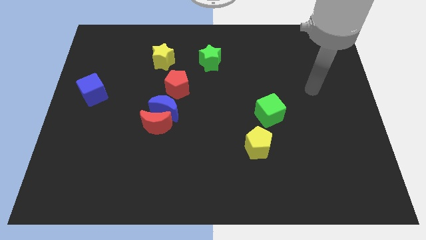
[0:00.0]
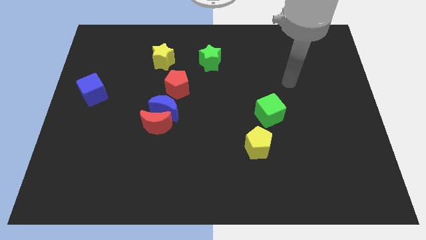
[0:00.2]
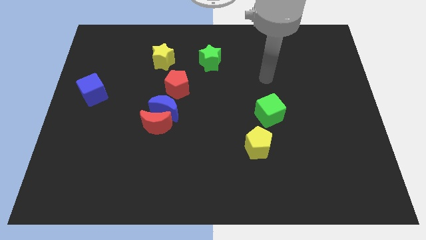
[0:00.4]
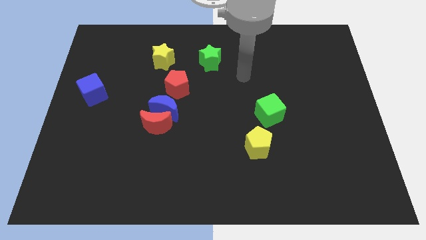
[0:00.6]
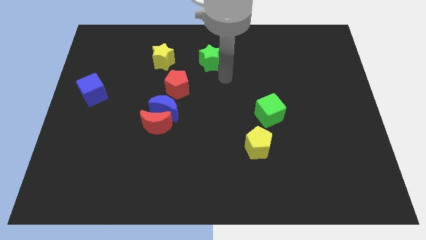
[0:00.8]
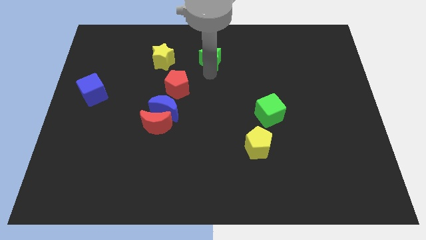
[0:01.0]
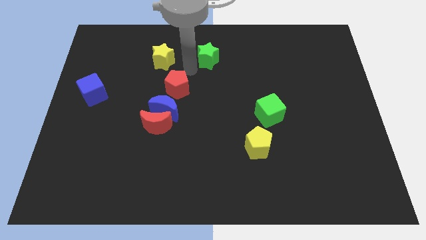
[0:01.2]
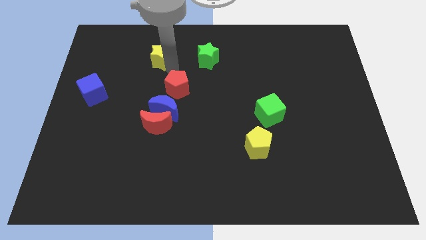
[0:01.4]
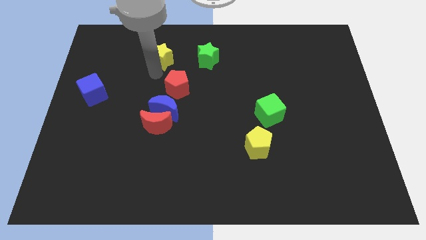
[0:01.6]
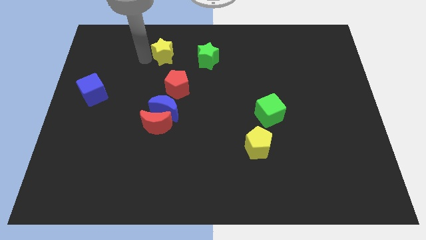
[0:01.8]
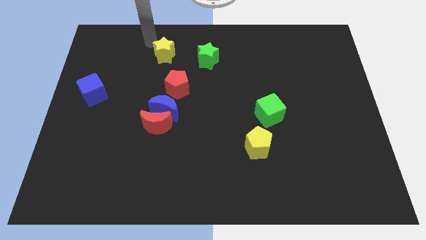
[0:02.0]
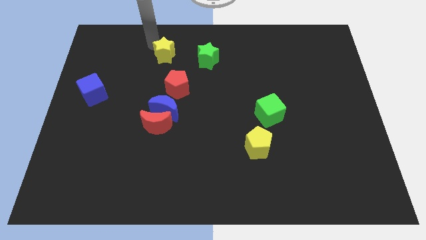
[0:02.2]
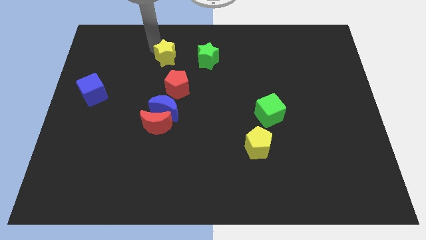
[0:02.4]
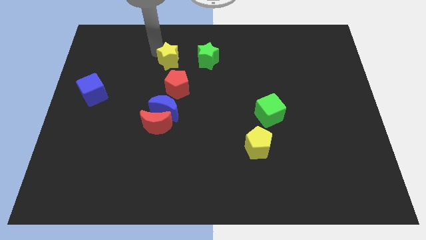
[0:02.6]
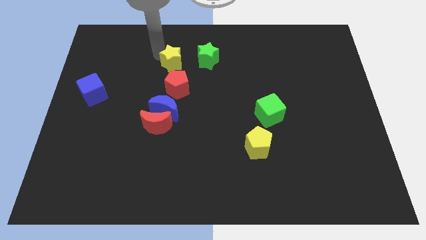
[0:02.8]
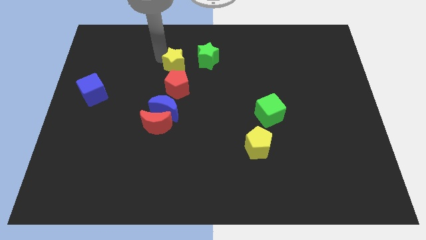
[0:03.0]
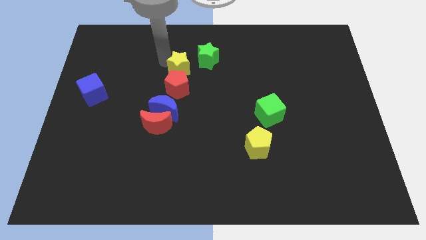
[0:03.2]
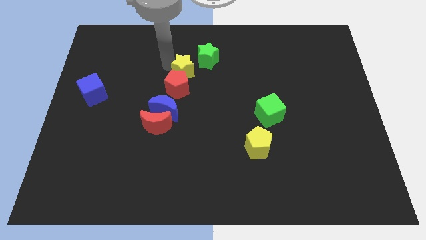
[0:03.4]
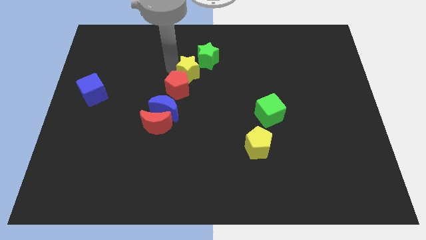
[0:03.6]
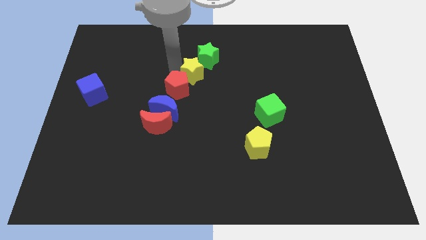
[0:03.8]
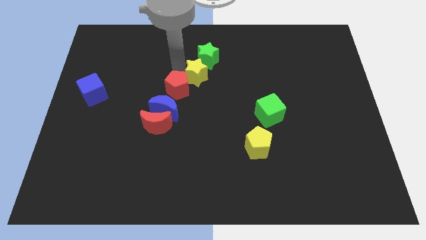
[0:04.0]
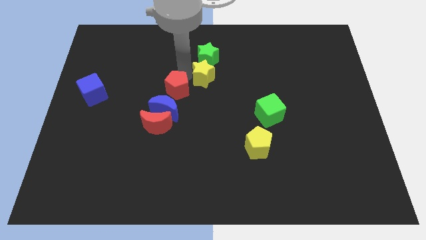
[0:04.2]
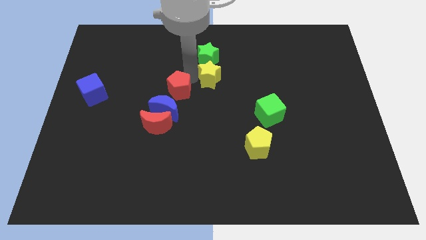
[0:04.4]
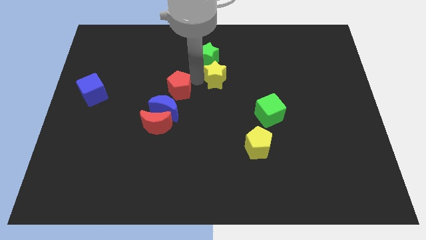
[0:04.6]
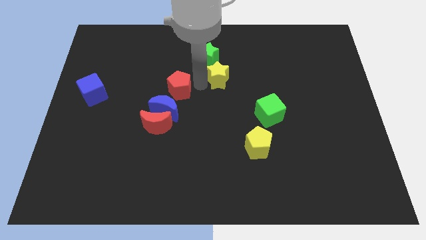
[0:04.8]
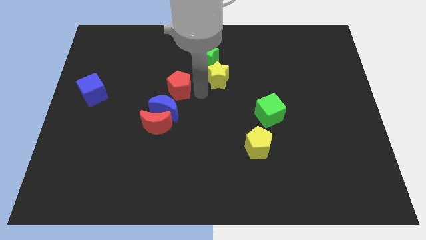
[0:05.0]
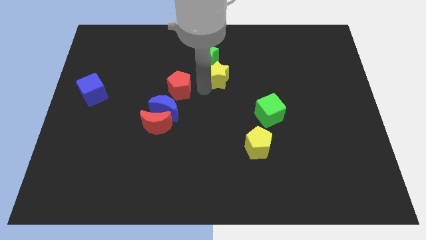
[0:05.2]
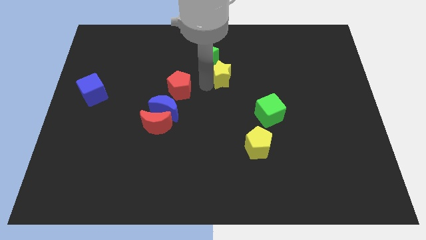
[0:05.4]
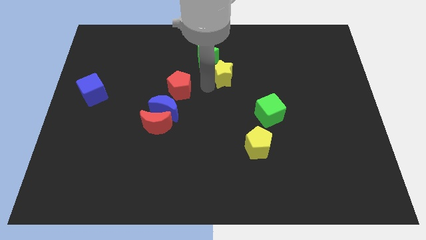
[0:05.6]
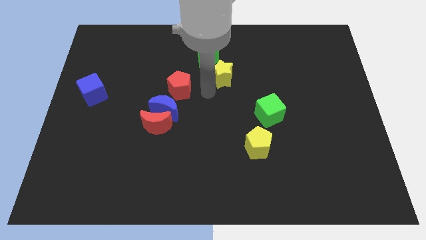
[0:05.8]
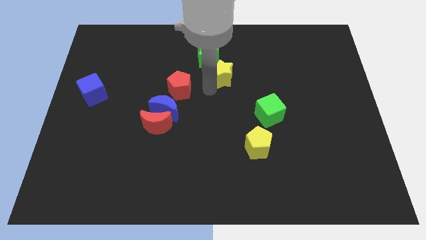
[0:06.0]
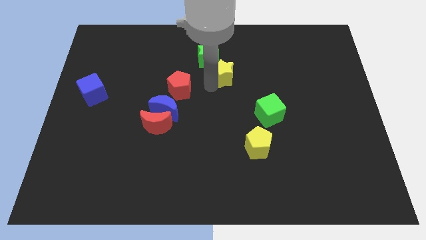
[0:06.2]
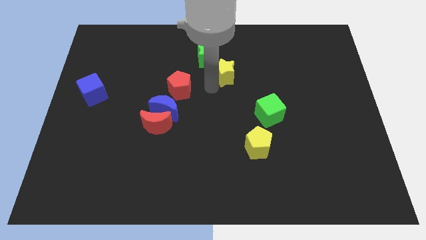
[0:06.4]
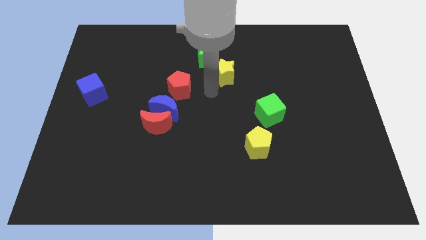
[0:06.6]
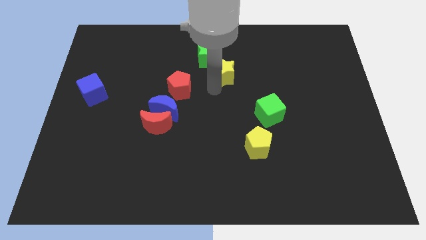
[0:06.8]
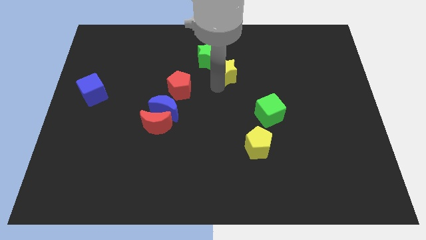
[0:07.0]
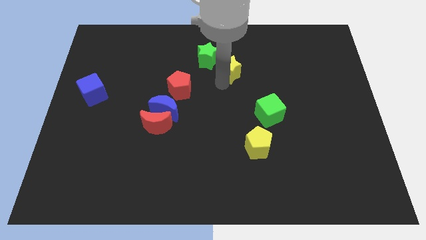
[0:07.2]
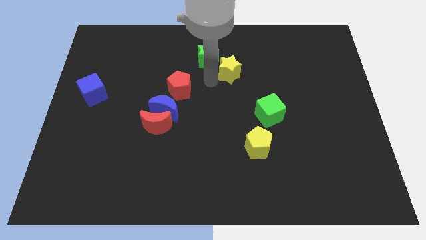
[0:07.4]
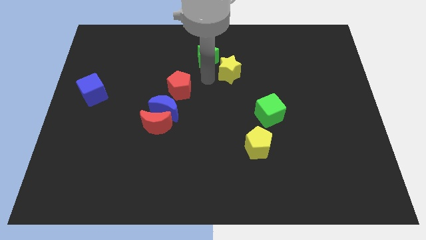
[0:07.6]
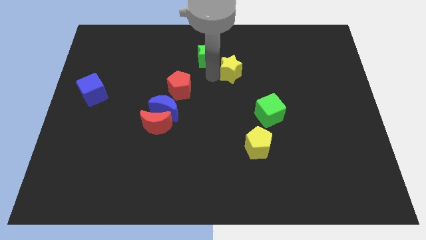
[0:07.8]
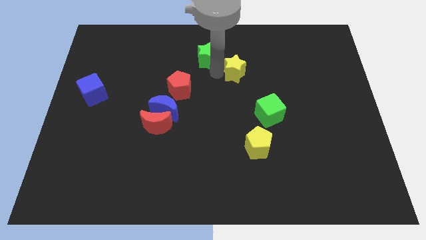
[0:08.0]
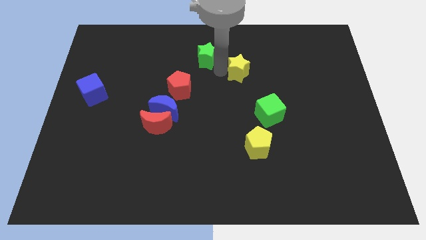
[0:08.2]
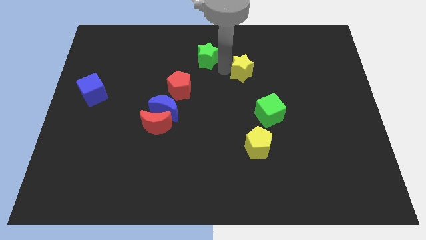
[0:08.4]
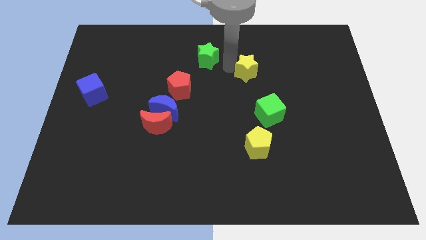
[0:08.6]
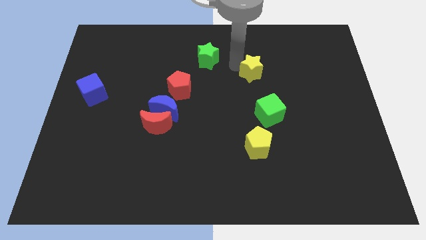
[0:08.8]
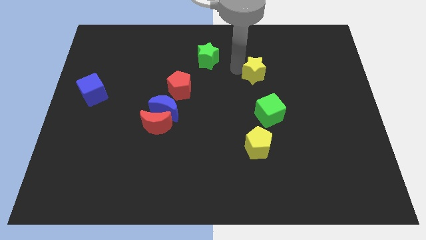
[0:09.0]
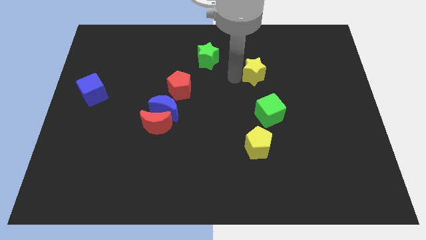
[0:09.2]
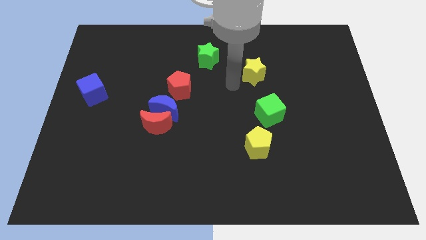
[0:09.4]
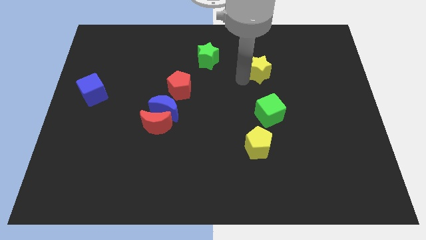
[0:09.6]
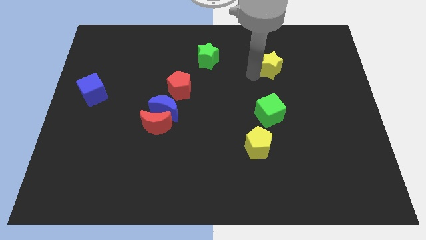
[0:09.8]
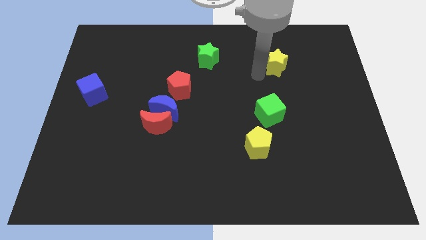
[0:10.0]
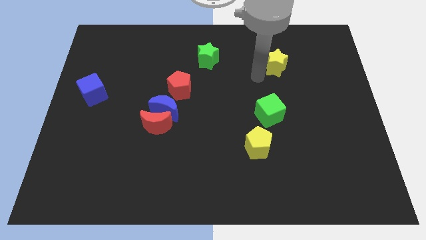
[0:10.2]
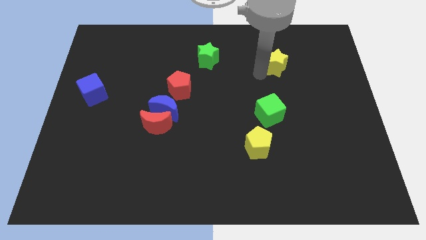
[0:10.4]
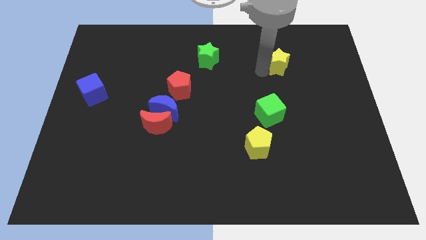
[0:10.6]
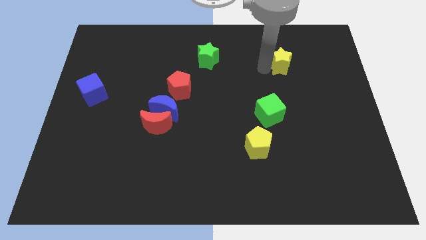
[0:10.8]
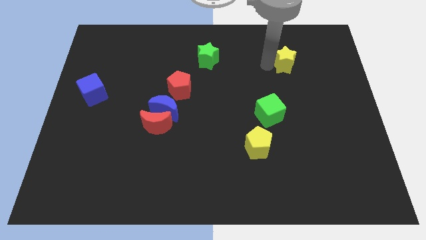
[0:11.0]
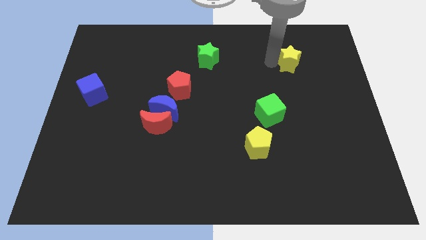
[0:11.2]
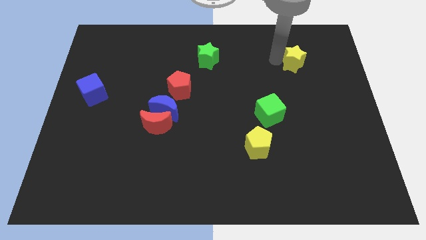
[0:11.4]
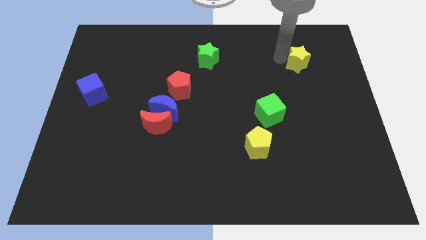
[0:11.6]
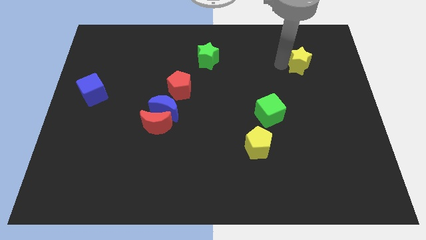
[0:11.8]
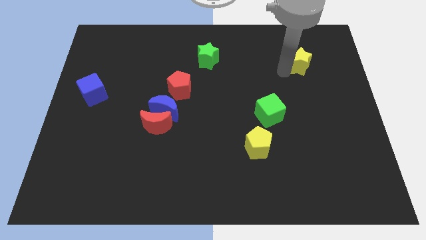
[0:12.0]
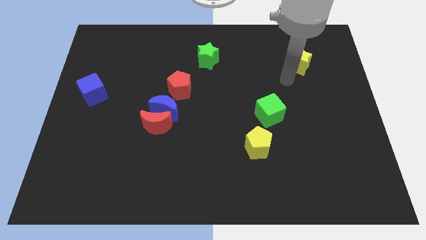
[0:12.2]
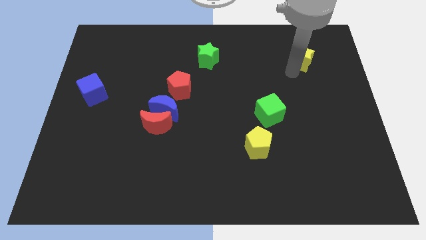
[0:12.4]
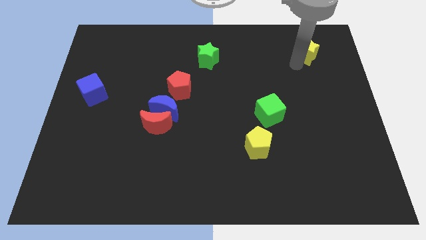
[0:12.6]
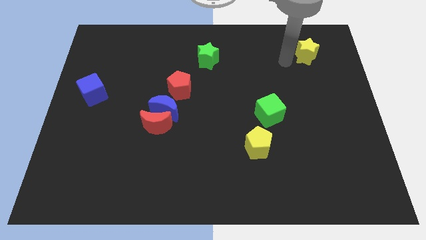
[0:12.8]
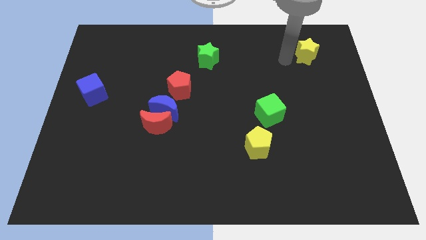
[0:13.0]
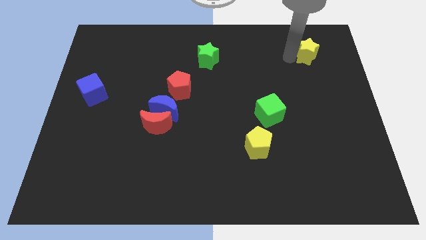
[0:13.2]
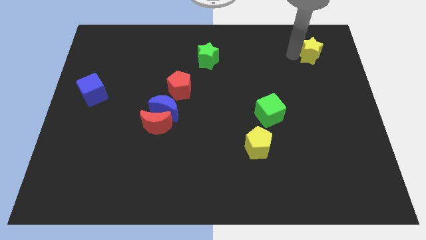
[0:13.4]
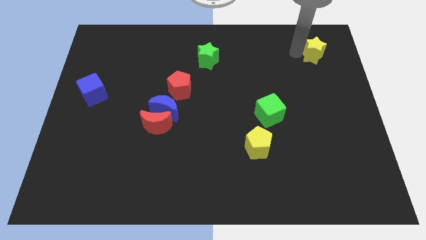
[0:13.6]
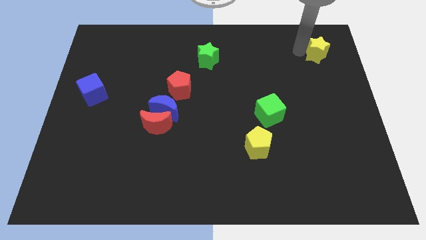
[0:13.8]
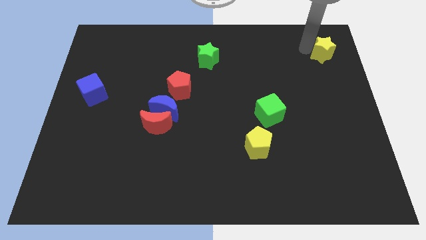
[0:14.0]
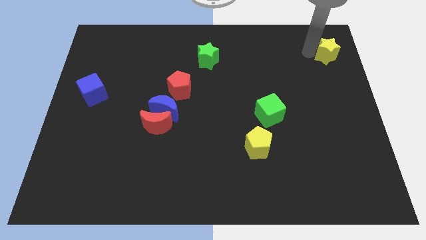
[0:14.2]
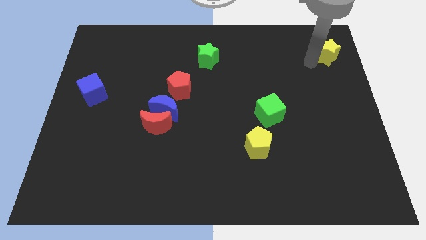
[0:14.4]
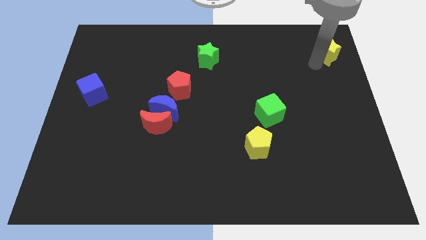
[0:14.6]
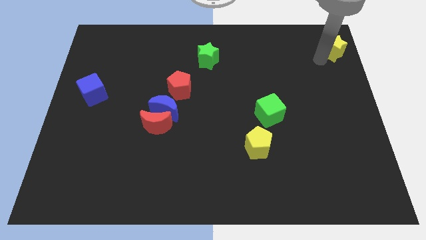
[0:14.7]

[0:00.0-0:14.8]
move the yellow star to the top right corner

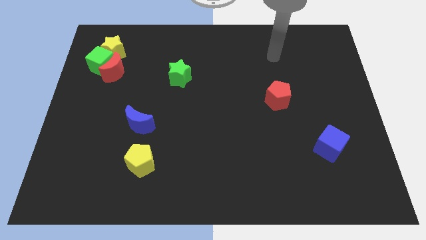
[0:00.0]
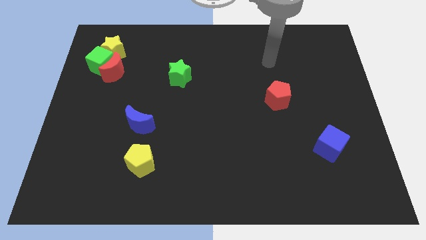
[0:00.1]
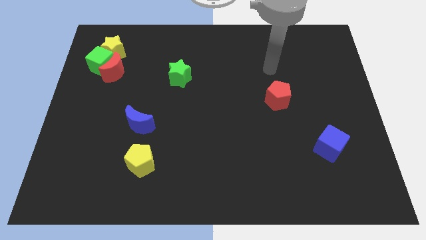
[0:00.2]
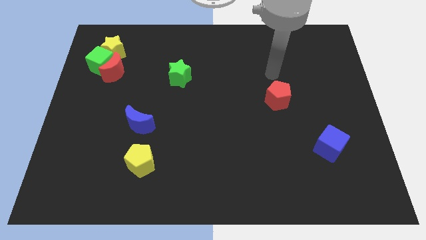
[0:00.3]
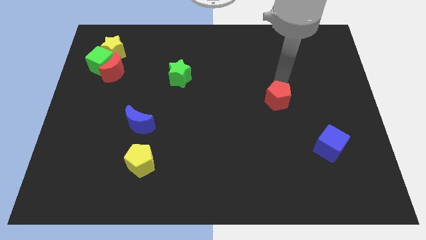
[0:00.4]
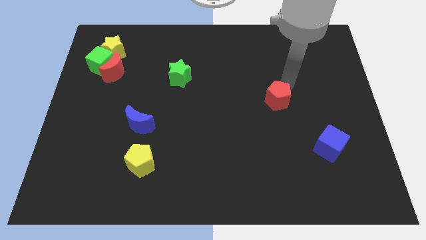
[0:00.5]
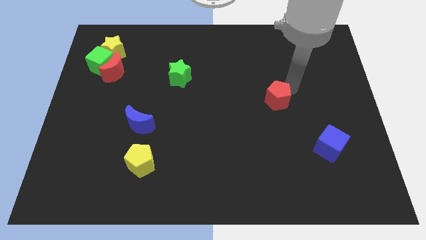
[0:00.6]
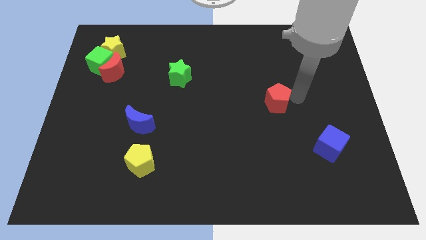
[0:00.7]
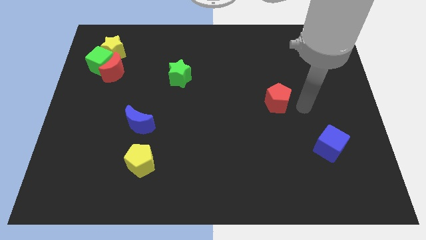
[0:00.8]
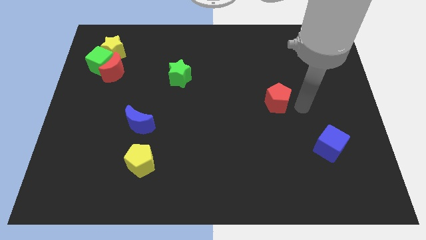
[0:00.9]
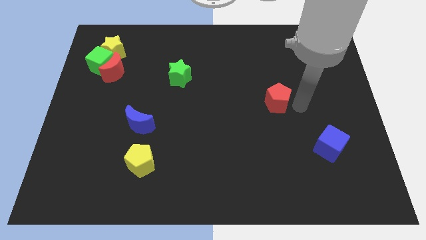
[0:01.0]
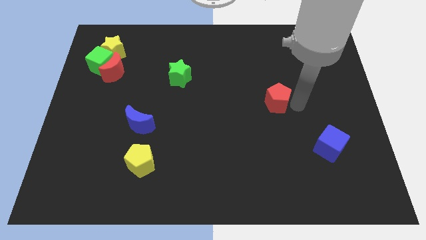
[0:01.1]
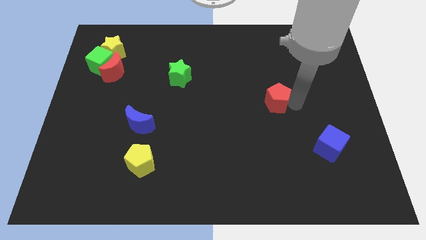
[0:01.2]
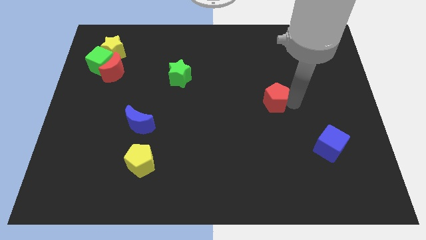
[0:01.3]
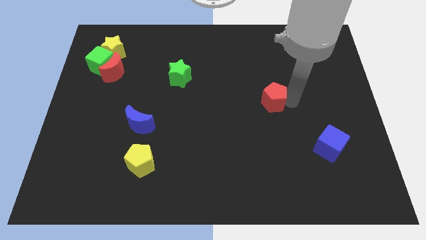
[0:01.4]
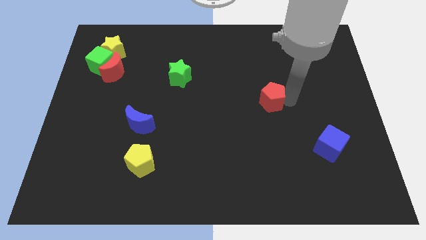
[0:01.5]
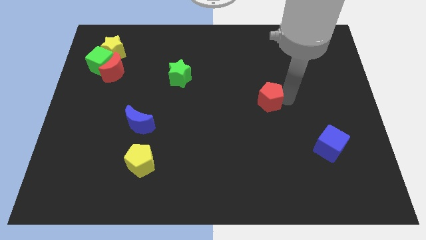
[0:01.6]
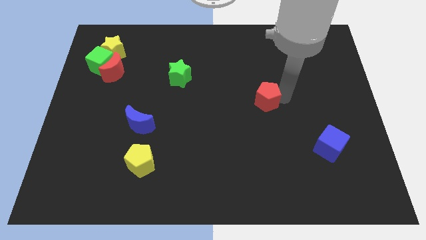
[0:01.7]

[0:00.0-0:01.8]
put the red pentagon to the center
